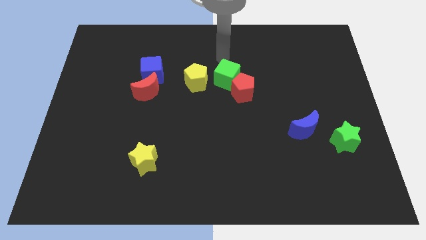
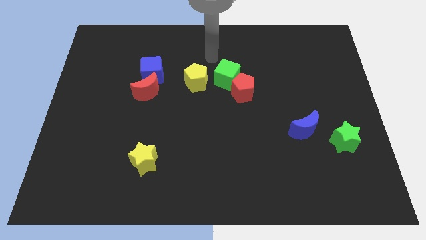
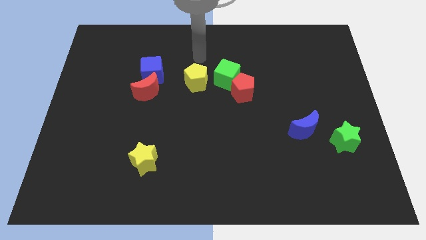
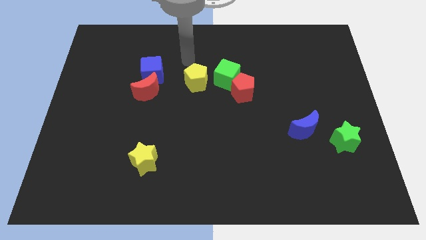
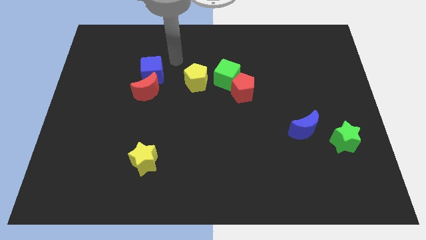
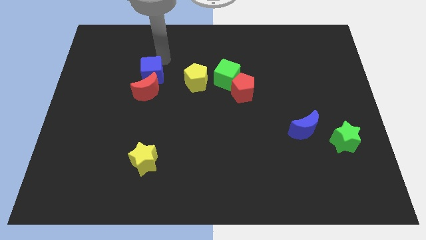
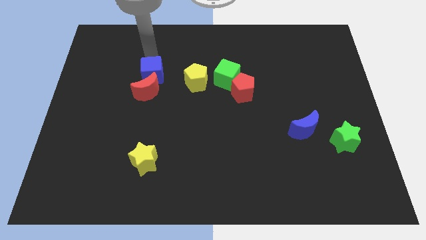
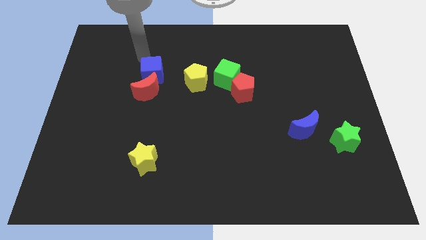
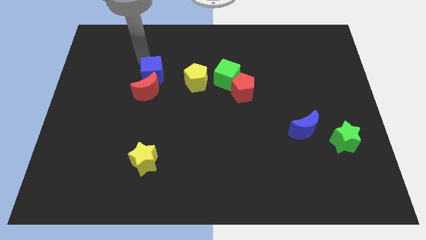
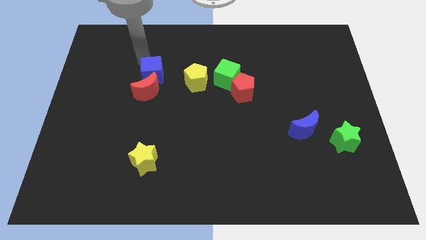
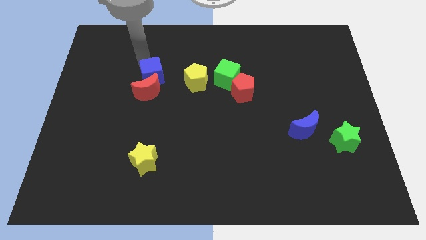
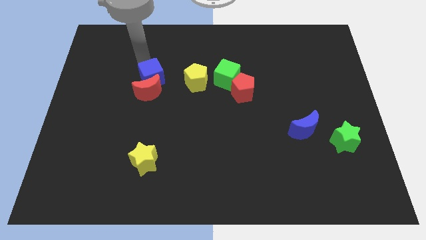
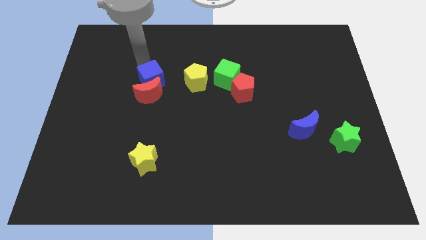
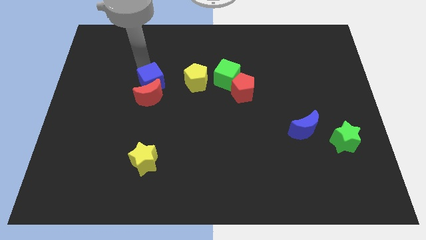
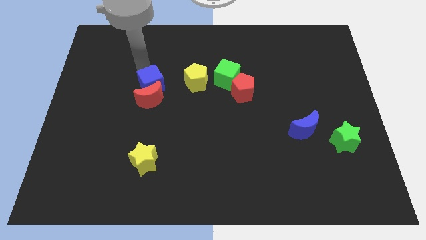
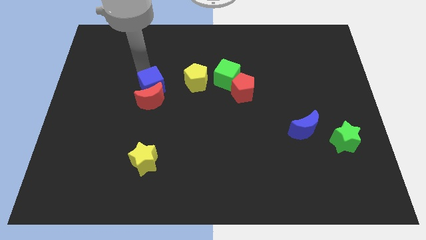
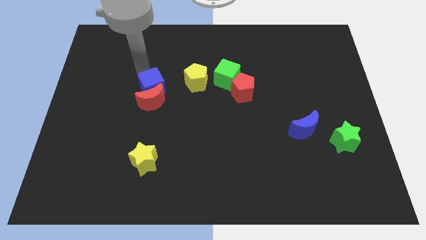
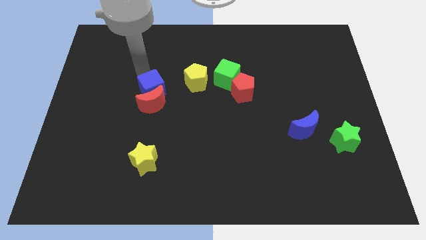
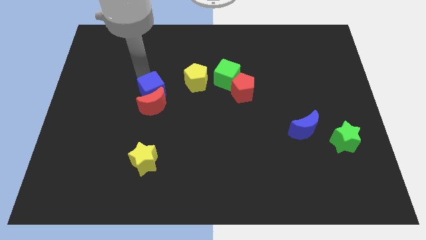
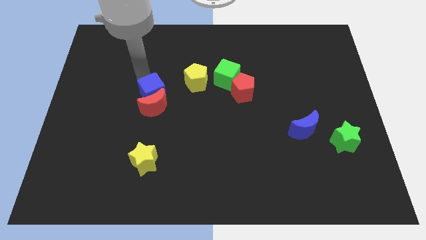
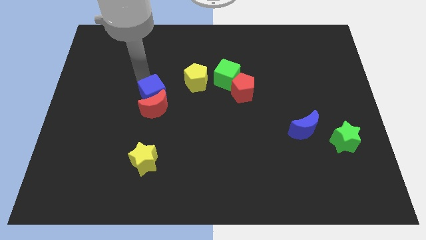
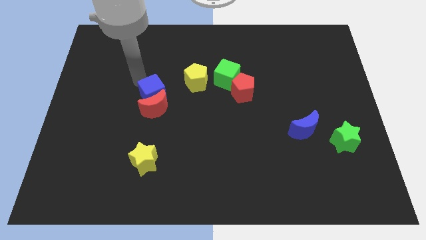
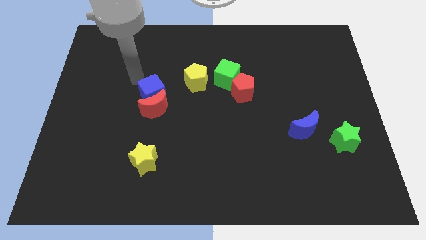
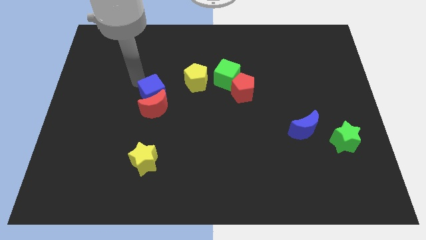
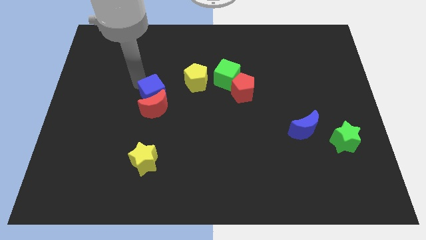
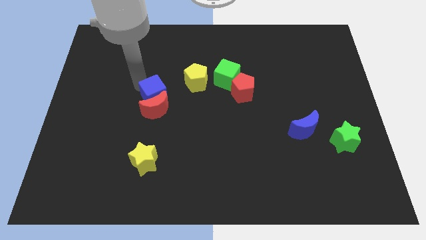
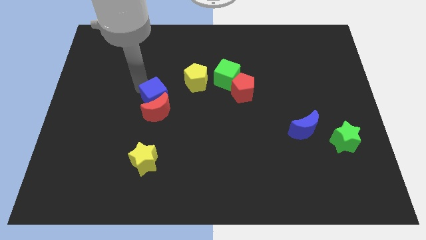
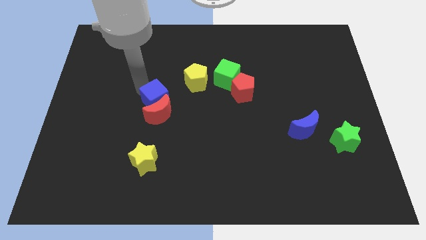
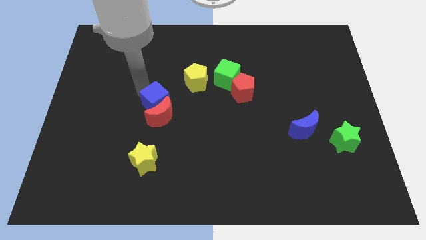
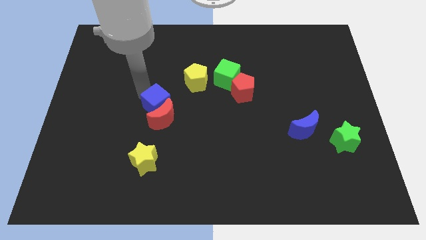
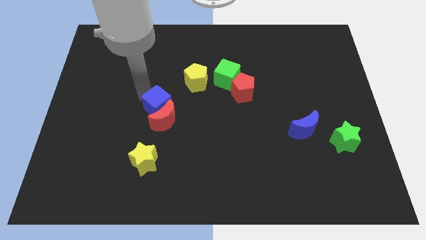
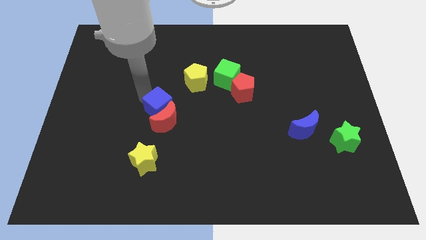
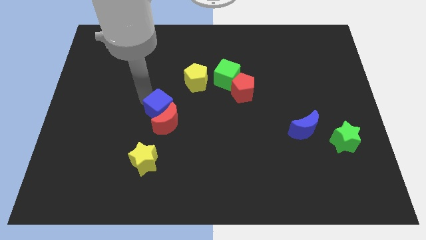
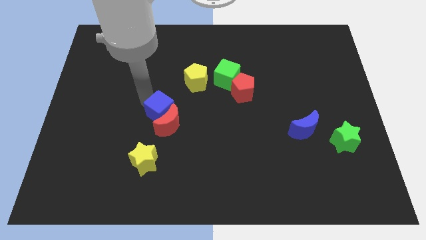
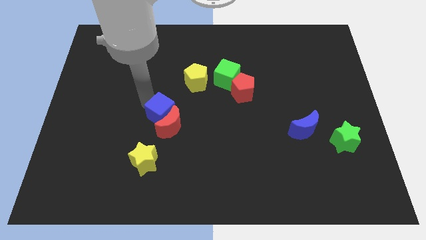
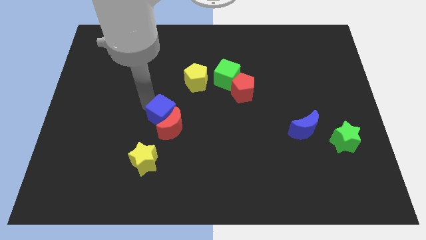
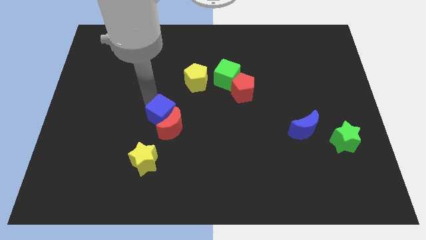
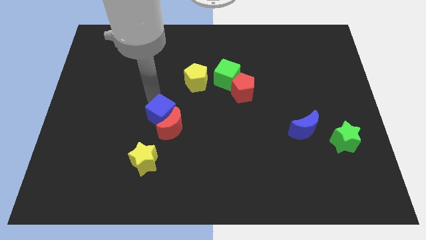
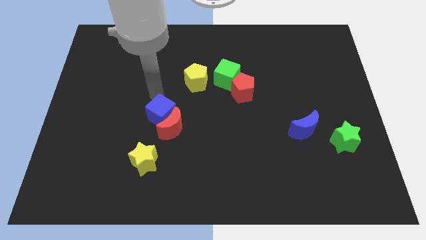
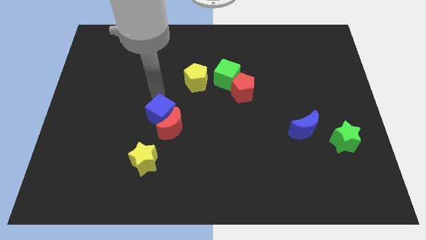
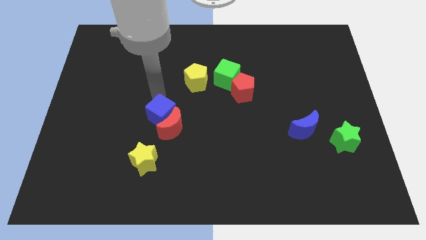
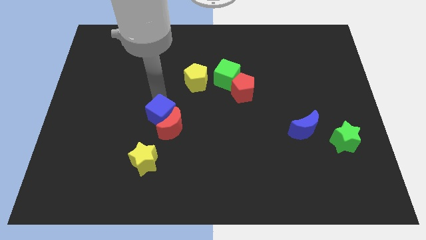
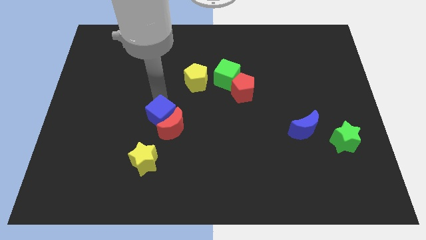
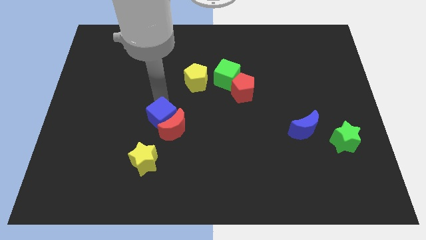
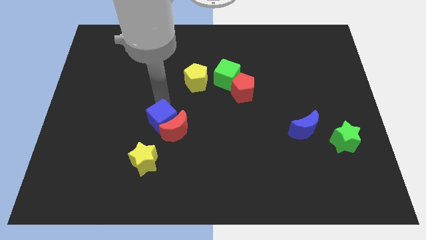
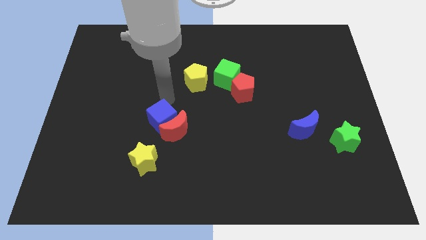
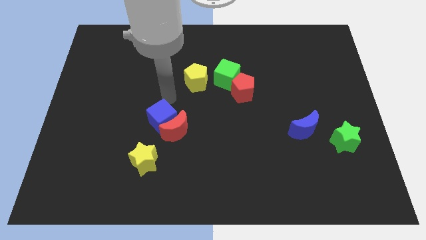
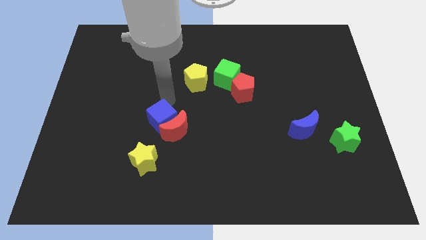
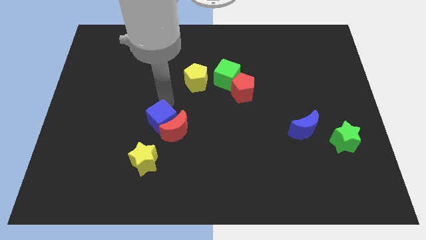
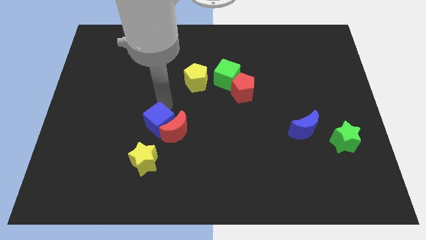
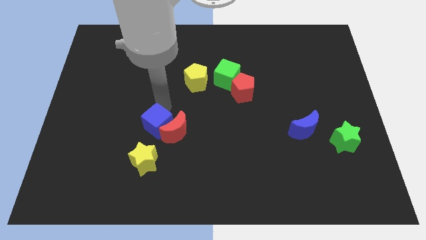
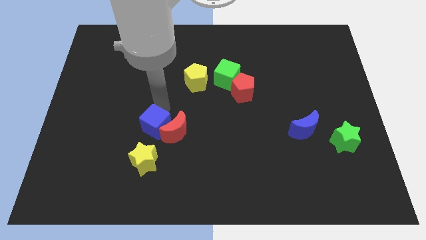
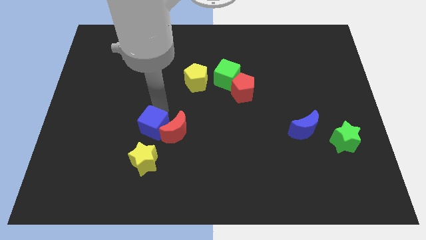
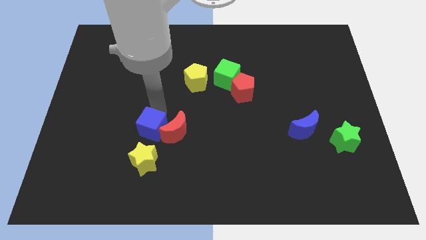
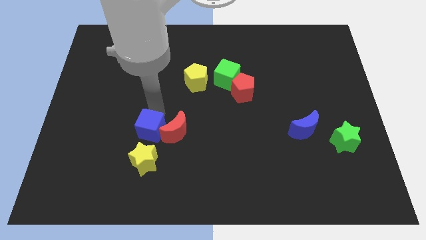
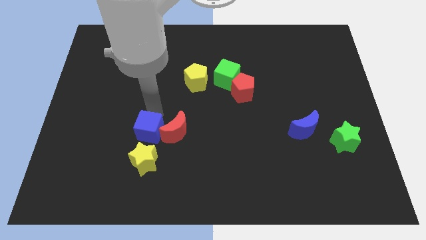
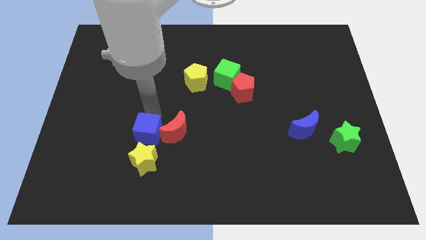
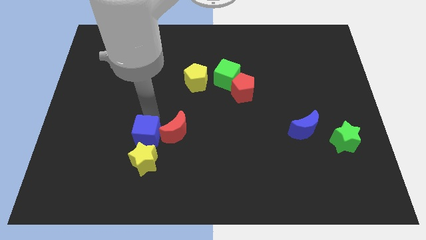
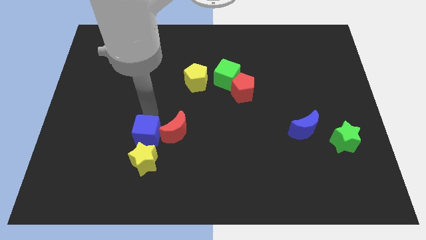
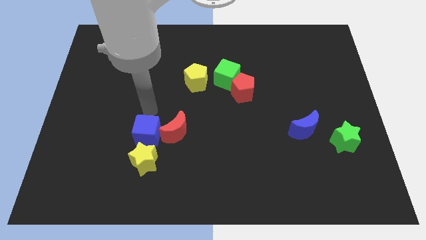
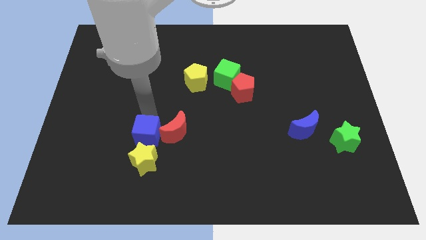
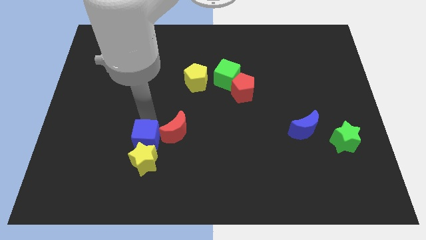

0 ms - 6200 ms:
slide the blue cube to the yellow star
